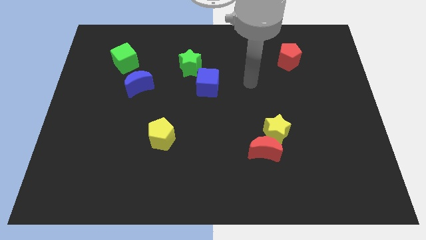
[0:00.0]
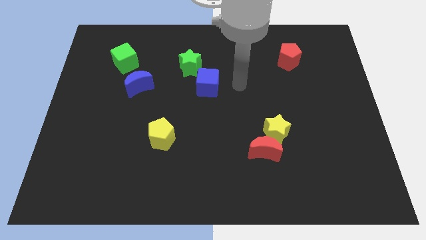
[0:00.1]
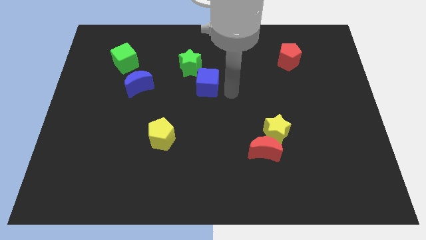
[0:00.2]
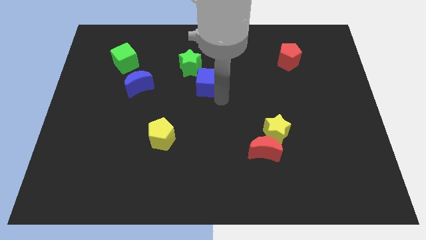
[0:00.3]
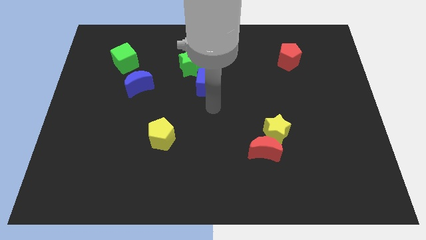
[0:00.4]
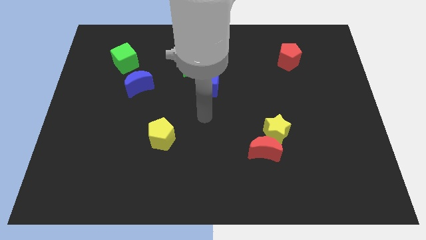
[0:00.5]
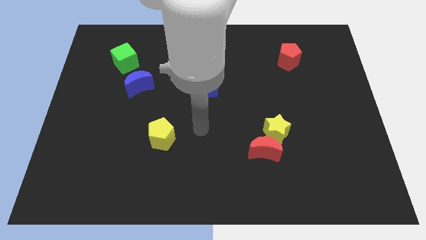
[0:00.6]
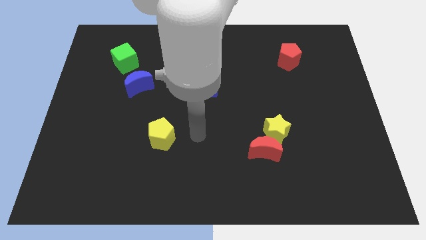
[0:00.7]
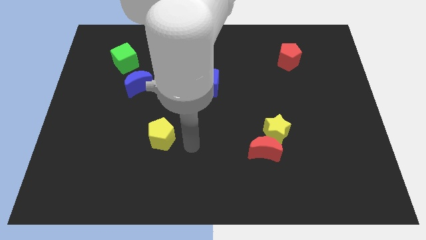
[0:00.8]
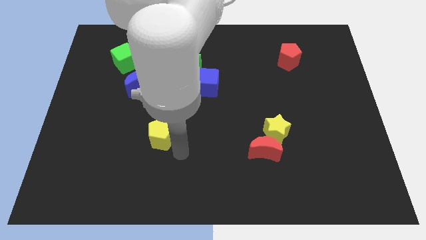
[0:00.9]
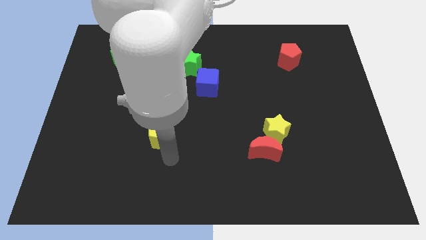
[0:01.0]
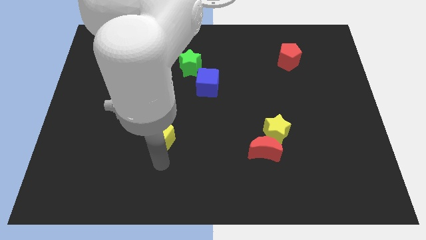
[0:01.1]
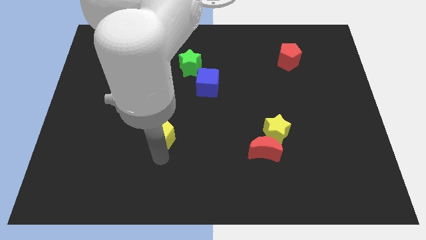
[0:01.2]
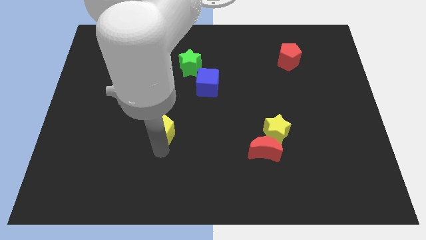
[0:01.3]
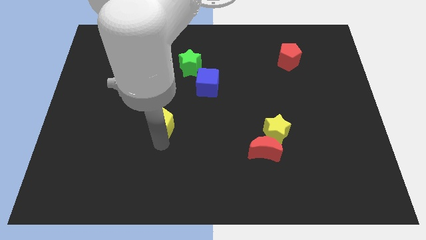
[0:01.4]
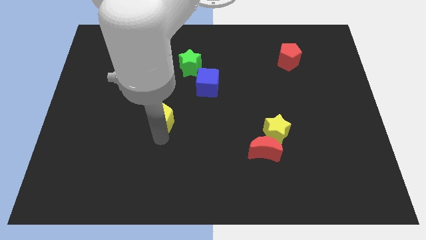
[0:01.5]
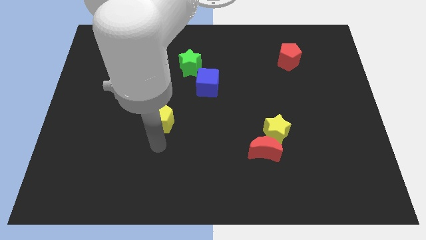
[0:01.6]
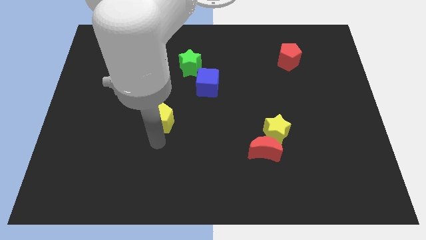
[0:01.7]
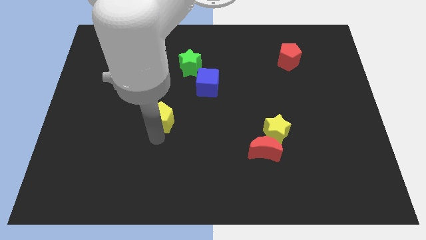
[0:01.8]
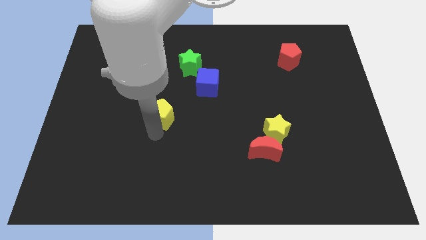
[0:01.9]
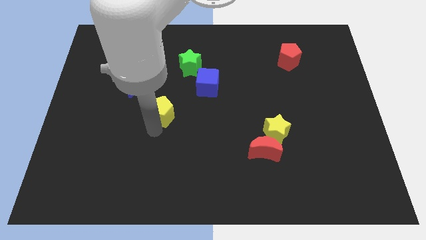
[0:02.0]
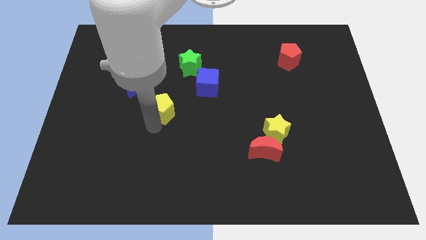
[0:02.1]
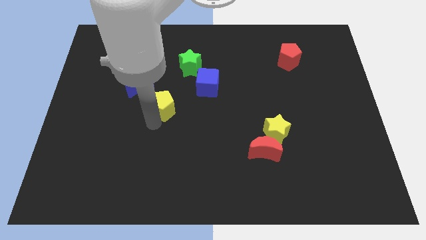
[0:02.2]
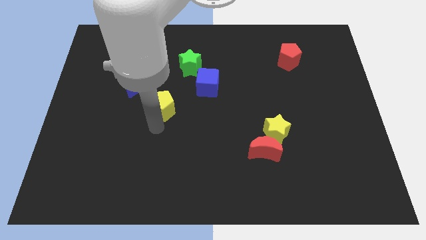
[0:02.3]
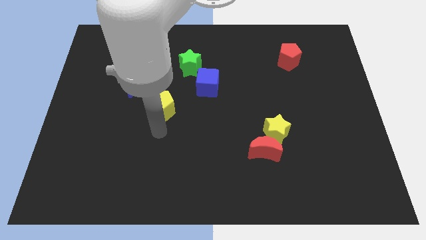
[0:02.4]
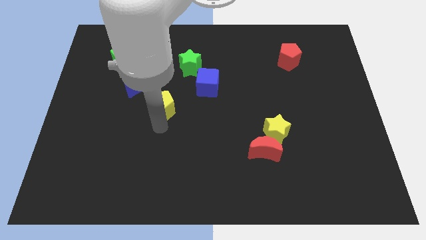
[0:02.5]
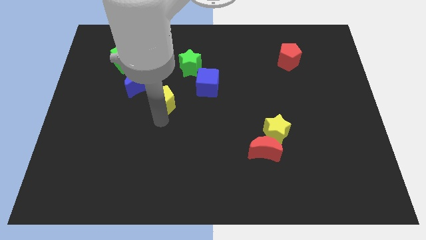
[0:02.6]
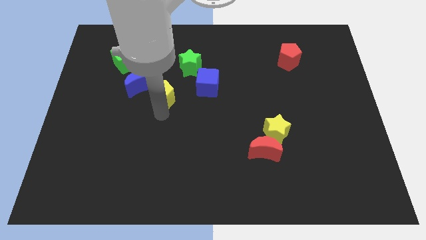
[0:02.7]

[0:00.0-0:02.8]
slide the yellow pentagon to the left of the blue cube

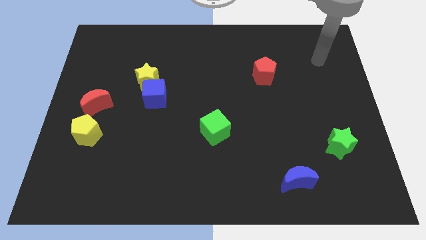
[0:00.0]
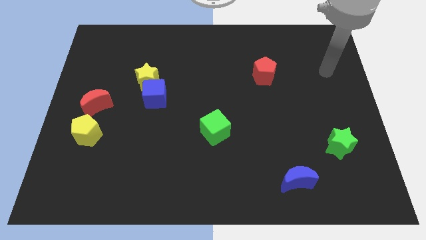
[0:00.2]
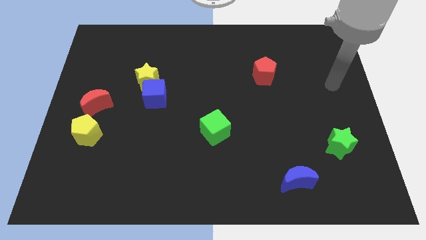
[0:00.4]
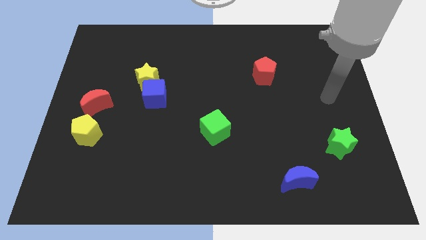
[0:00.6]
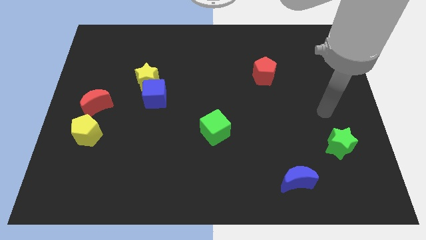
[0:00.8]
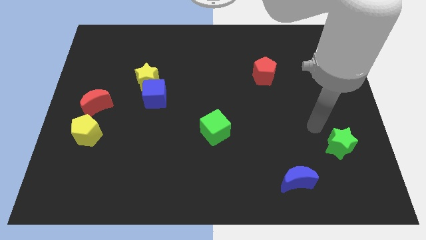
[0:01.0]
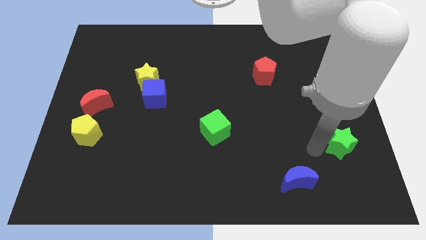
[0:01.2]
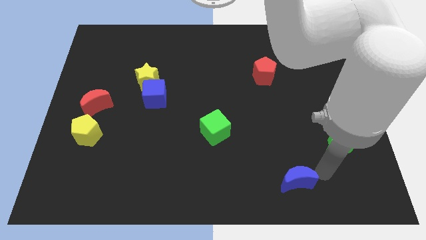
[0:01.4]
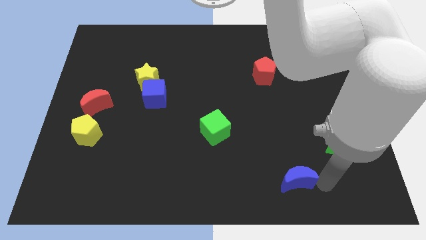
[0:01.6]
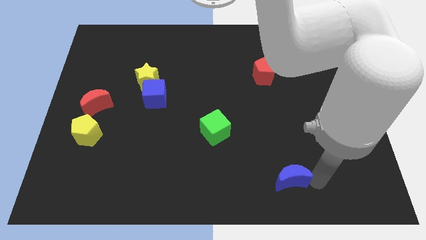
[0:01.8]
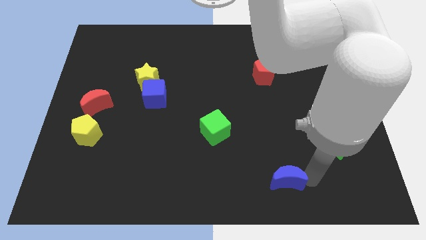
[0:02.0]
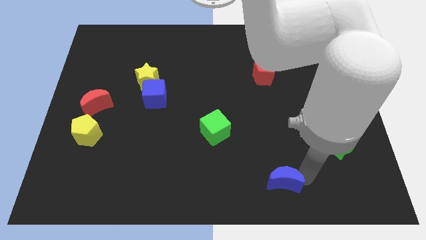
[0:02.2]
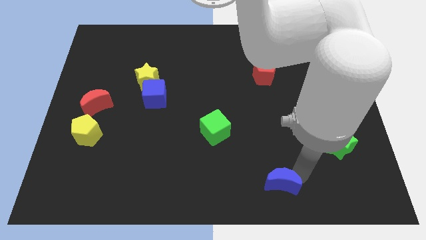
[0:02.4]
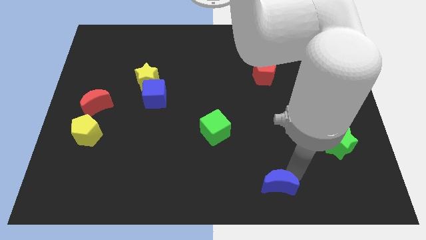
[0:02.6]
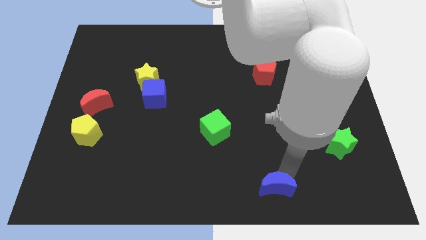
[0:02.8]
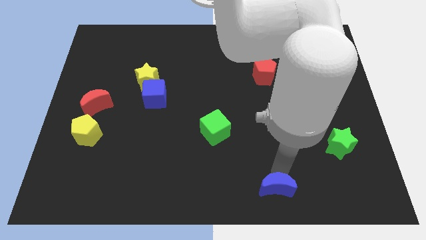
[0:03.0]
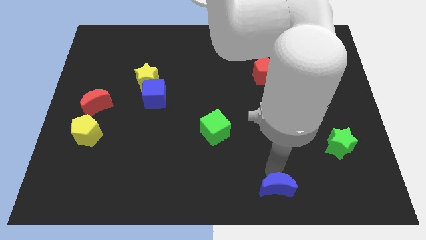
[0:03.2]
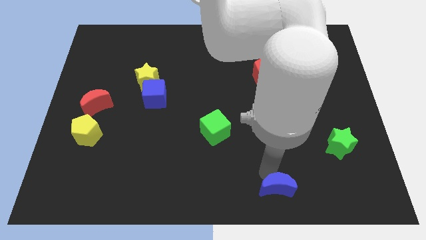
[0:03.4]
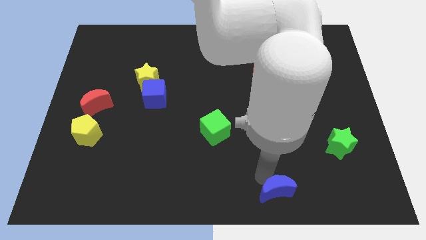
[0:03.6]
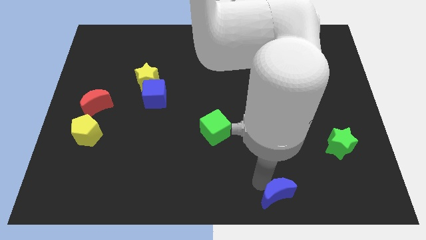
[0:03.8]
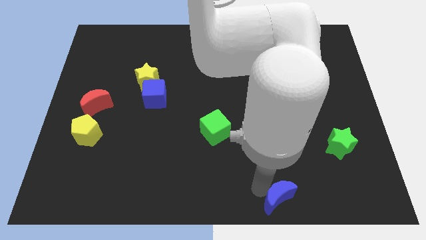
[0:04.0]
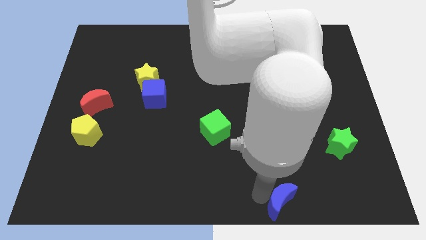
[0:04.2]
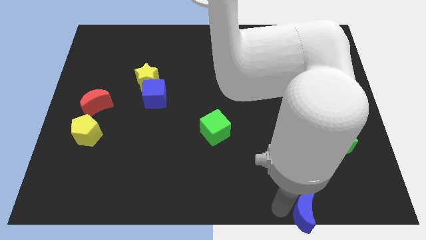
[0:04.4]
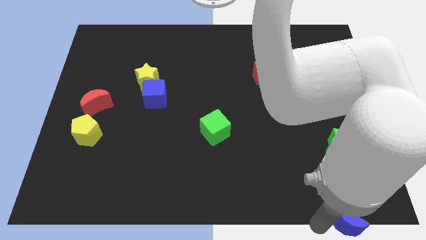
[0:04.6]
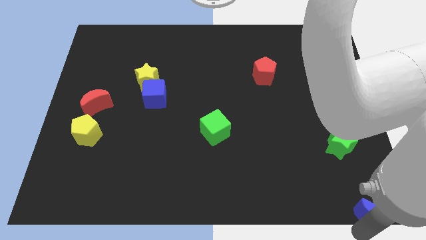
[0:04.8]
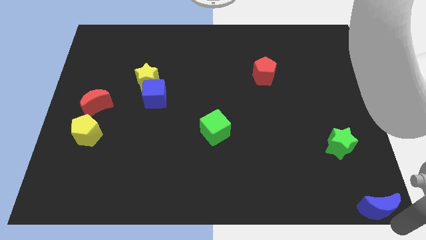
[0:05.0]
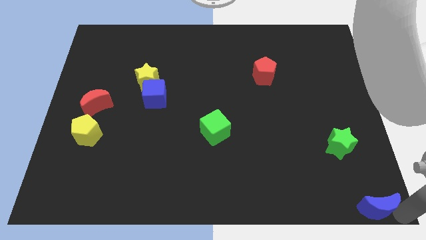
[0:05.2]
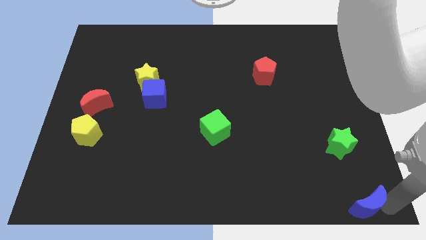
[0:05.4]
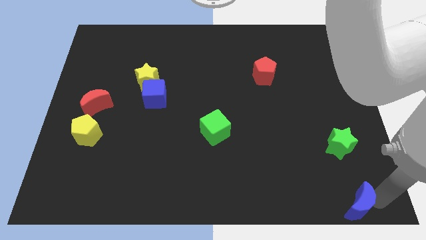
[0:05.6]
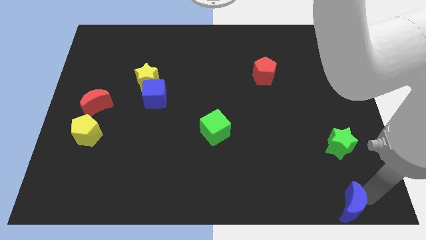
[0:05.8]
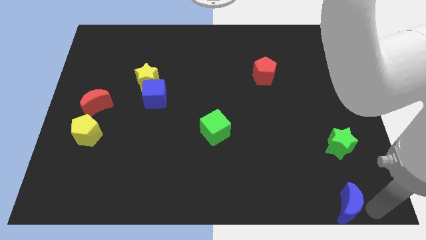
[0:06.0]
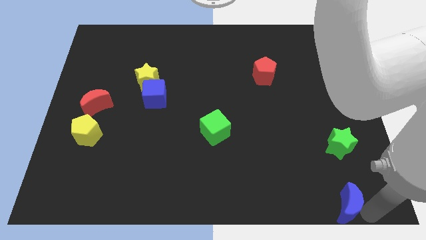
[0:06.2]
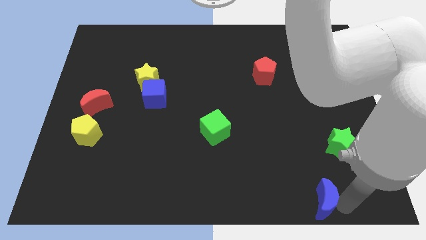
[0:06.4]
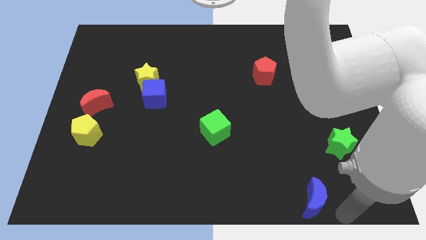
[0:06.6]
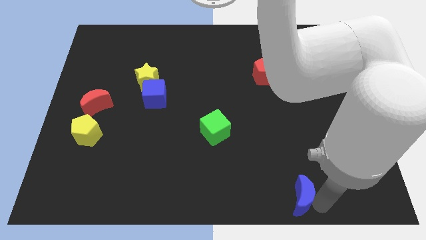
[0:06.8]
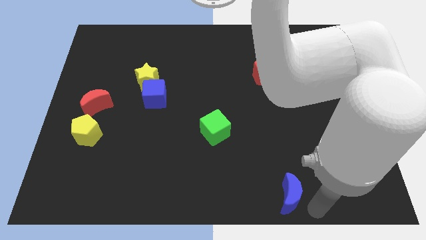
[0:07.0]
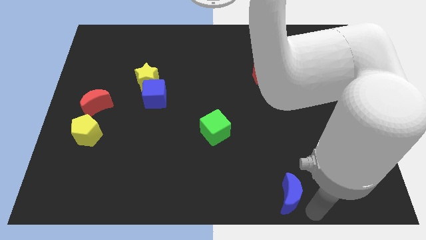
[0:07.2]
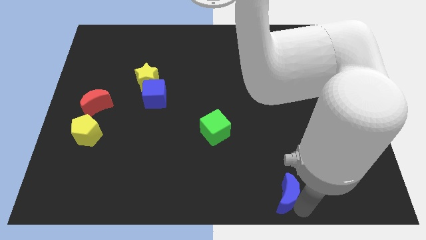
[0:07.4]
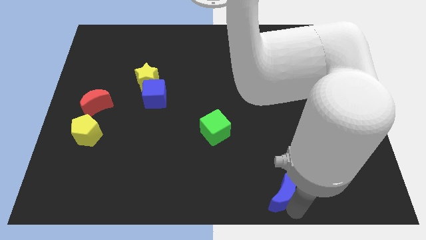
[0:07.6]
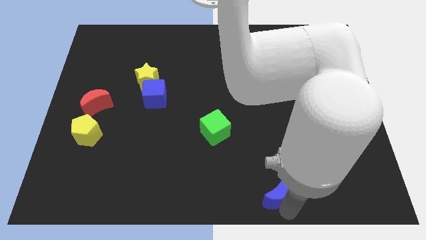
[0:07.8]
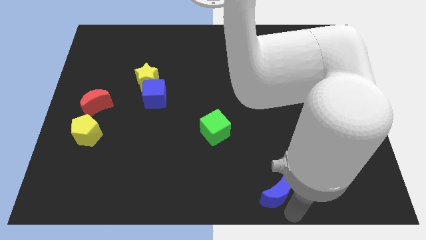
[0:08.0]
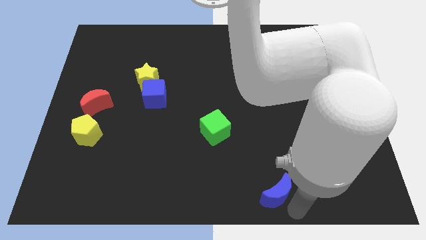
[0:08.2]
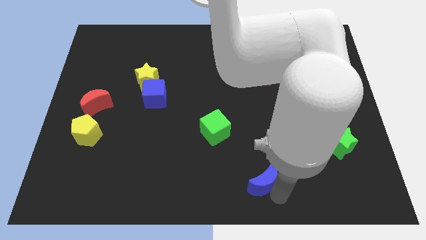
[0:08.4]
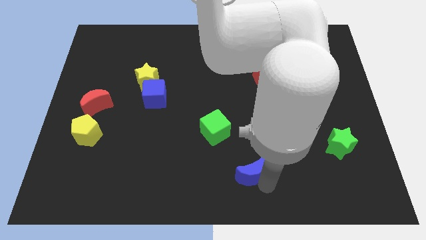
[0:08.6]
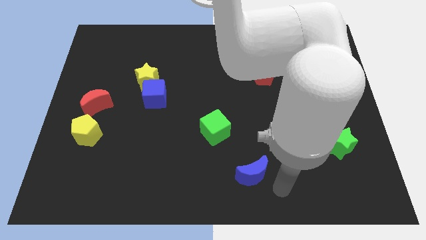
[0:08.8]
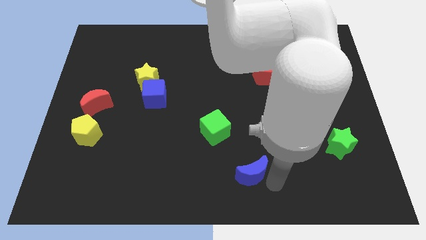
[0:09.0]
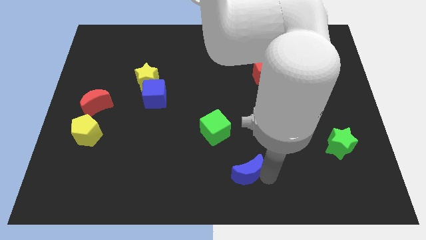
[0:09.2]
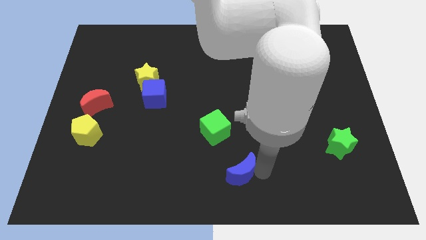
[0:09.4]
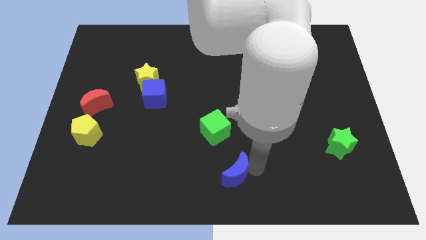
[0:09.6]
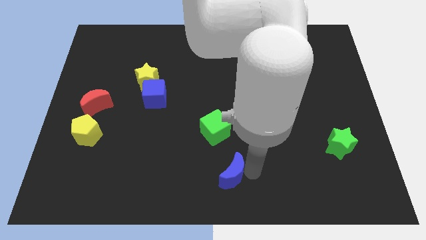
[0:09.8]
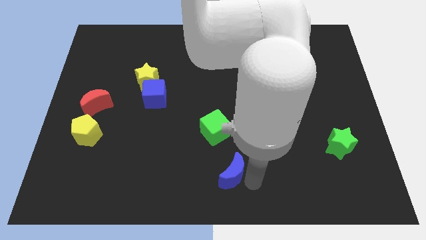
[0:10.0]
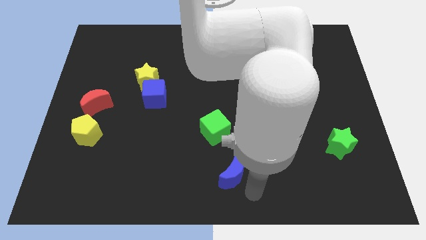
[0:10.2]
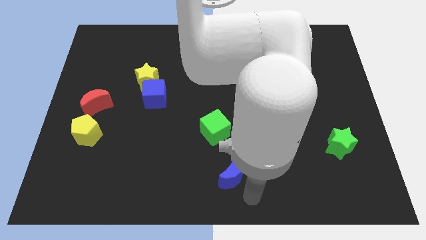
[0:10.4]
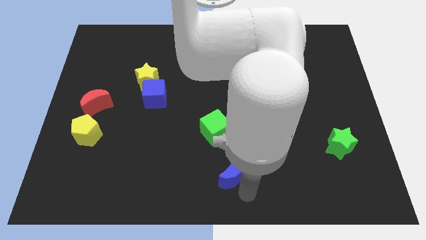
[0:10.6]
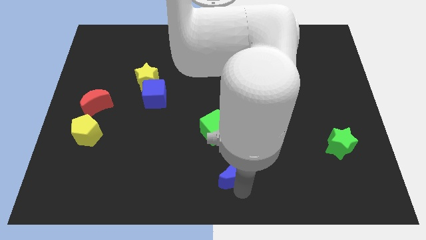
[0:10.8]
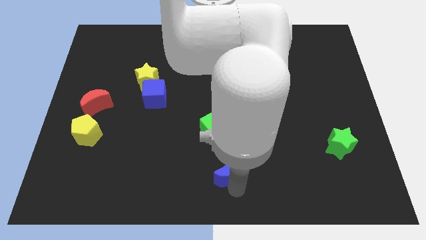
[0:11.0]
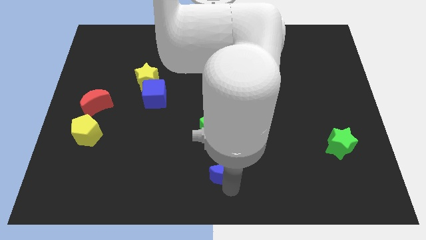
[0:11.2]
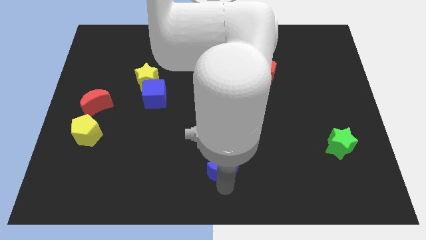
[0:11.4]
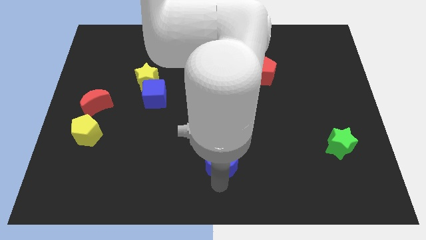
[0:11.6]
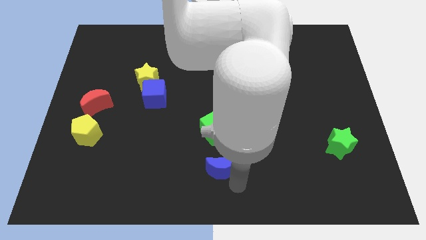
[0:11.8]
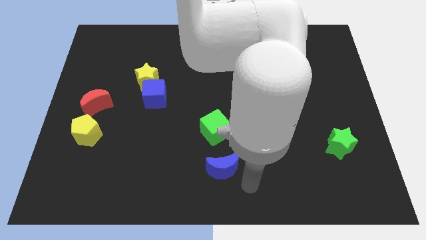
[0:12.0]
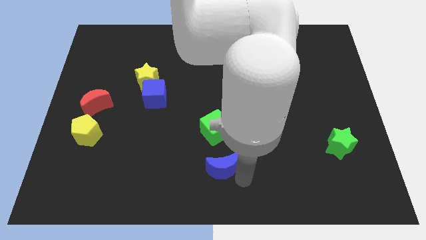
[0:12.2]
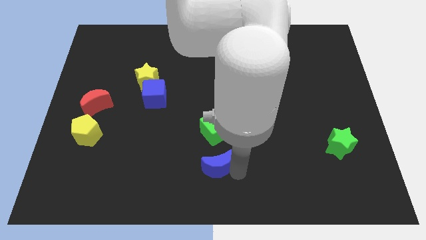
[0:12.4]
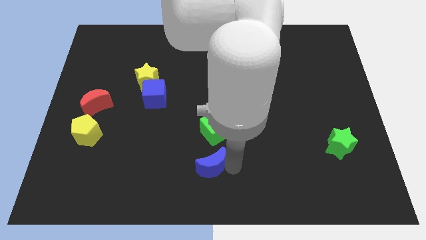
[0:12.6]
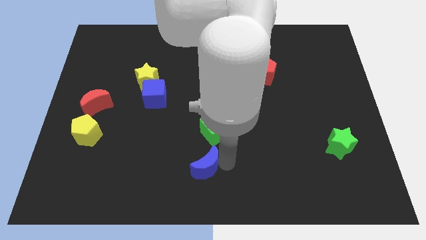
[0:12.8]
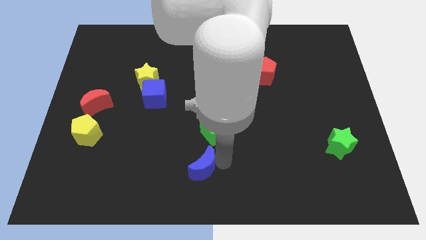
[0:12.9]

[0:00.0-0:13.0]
put the blue moon diagonally down and to the left of the green cube
